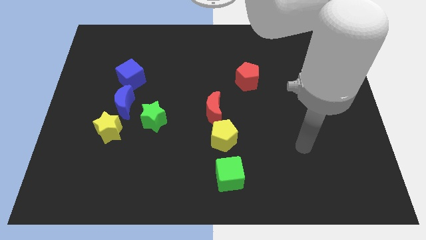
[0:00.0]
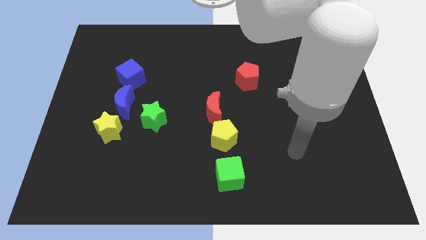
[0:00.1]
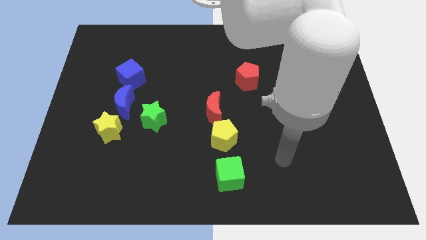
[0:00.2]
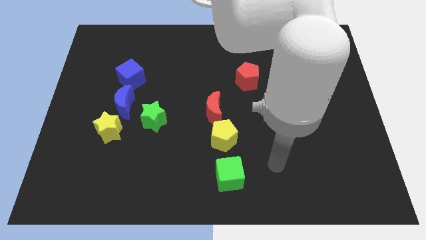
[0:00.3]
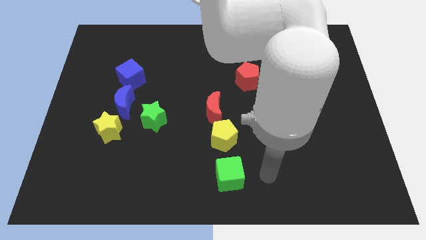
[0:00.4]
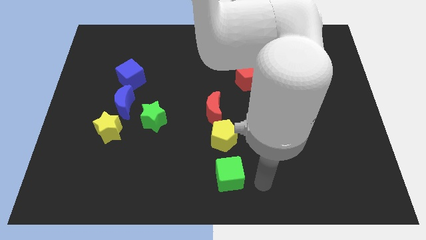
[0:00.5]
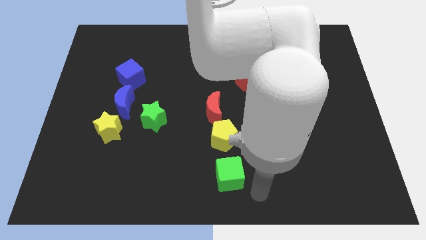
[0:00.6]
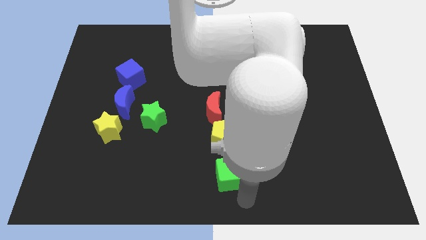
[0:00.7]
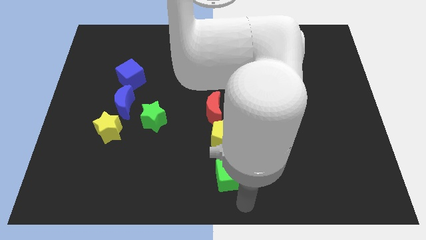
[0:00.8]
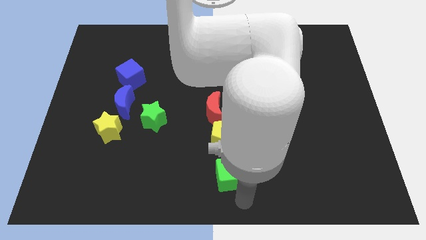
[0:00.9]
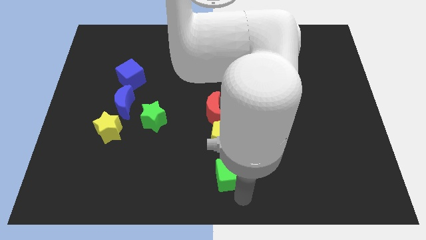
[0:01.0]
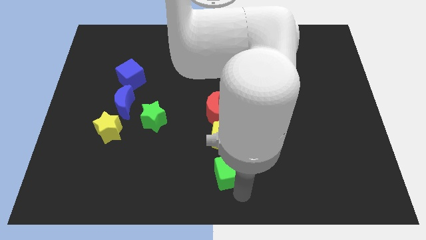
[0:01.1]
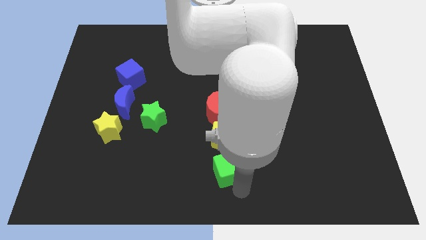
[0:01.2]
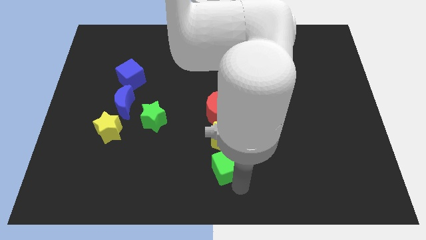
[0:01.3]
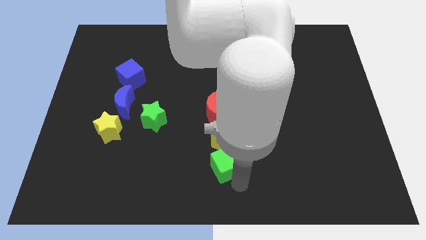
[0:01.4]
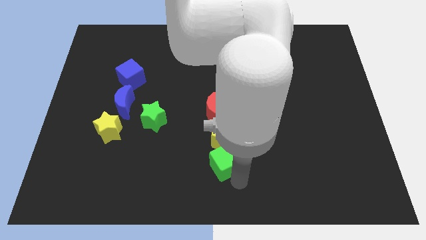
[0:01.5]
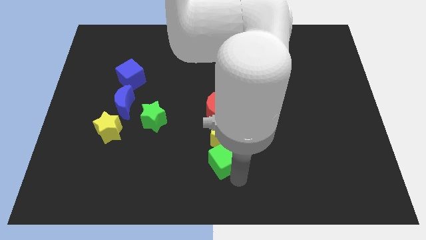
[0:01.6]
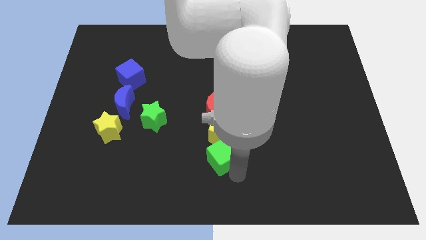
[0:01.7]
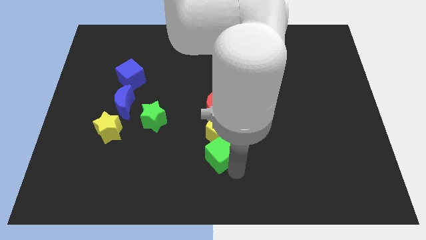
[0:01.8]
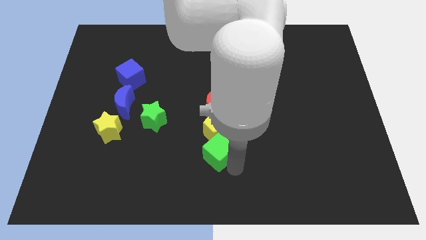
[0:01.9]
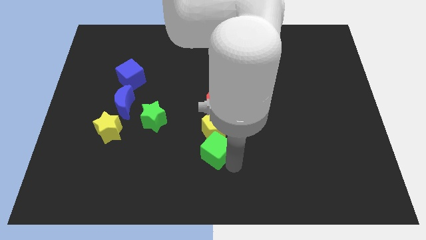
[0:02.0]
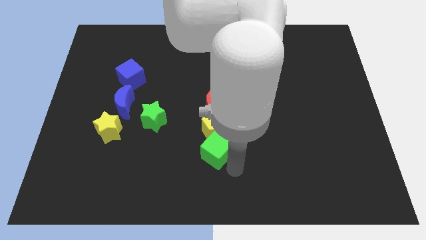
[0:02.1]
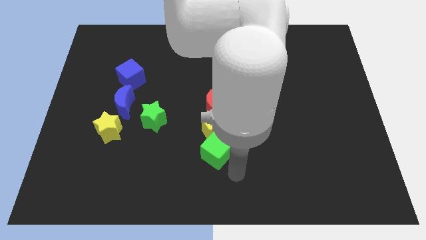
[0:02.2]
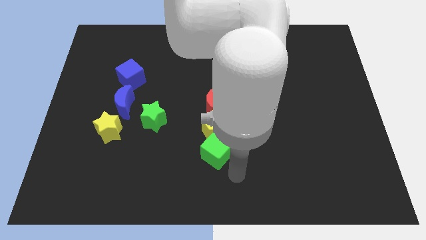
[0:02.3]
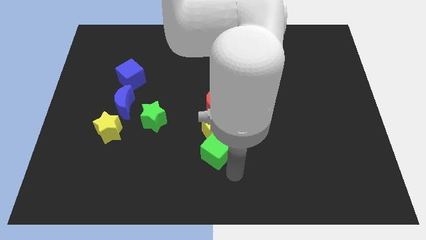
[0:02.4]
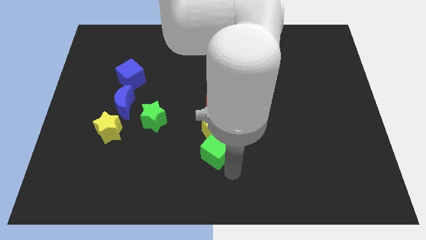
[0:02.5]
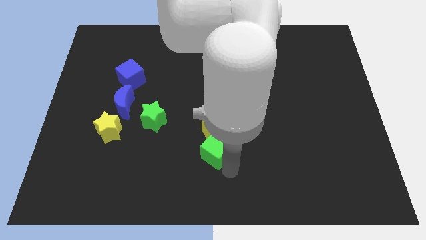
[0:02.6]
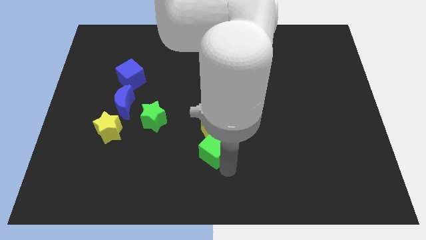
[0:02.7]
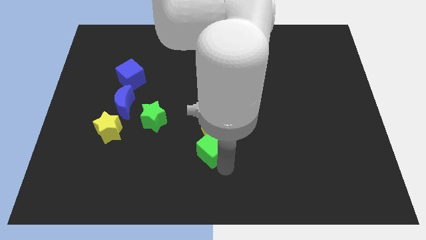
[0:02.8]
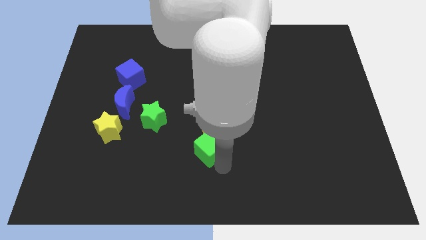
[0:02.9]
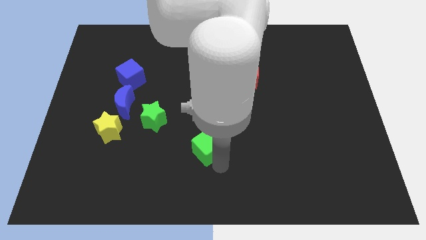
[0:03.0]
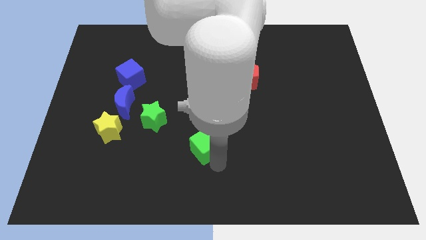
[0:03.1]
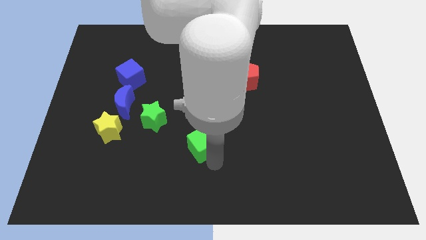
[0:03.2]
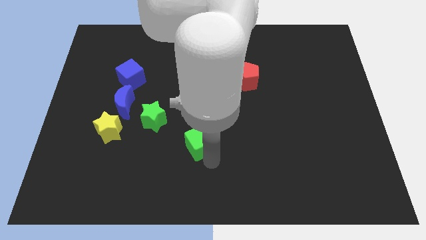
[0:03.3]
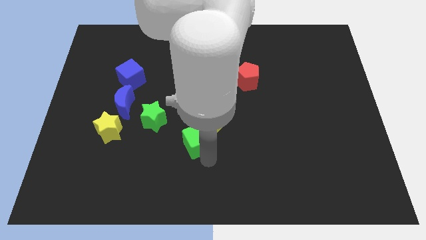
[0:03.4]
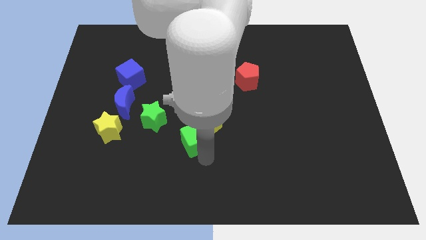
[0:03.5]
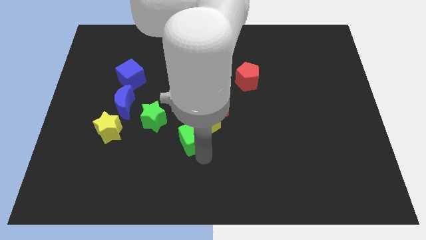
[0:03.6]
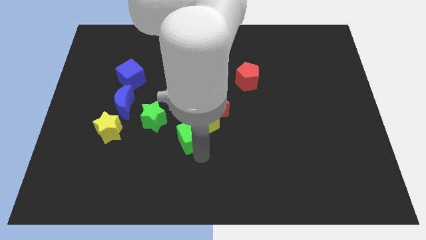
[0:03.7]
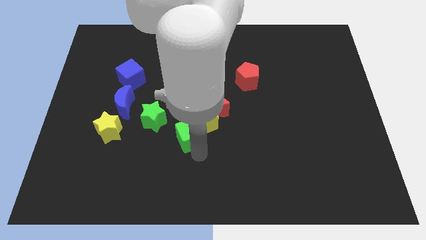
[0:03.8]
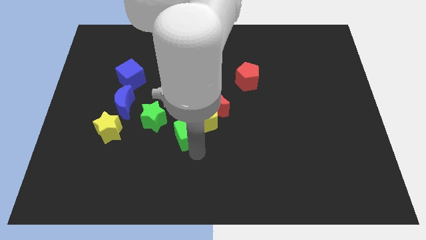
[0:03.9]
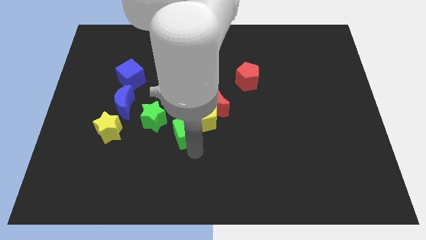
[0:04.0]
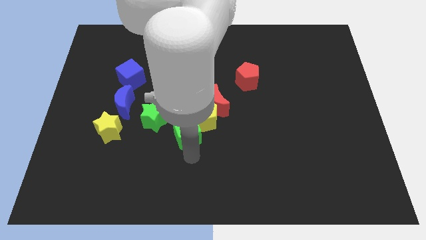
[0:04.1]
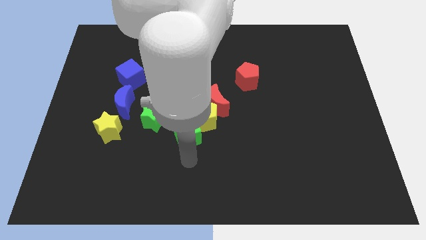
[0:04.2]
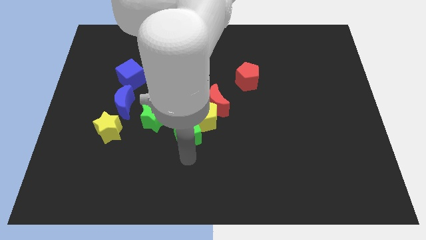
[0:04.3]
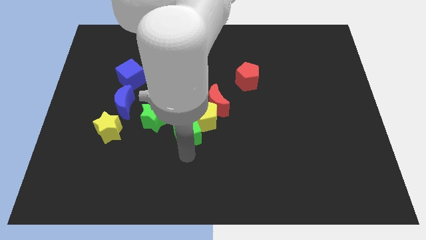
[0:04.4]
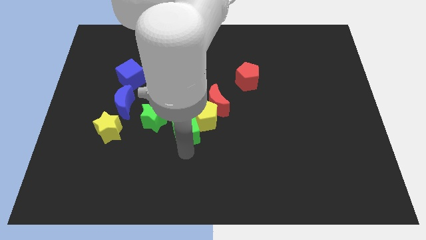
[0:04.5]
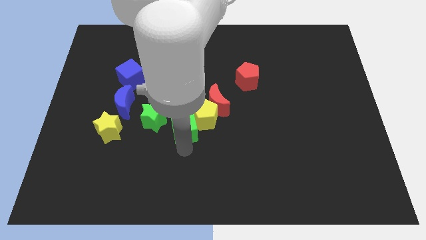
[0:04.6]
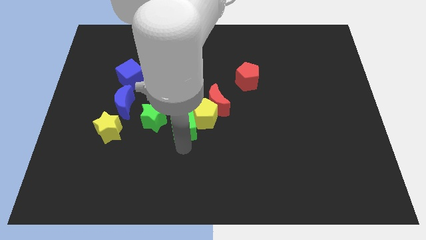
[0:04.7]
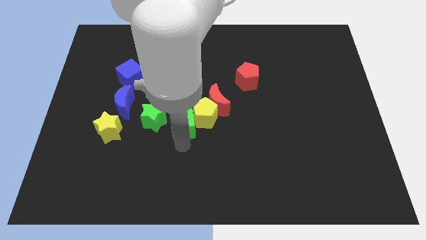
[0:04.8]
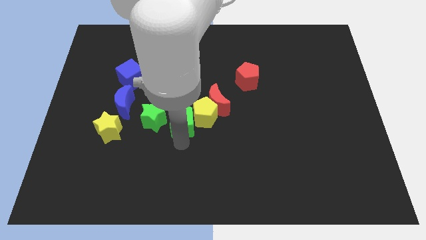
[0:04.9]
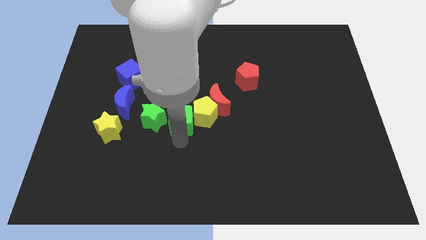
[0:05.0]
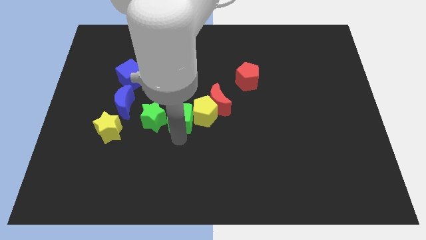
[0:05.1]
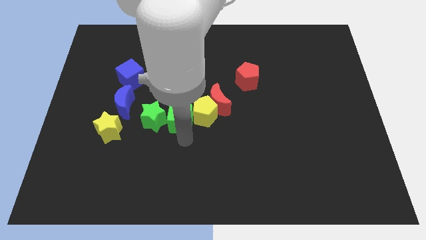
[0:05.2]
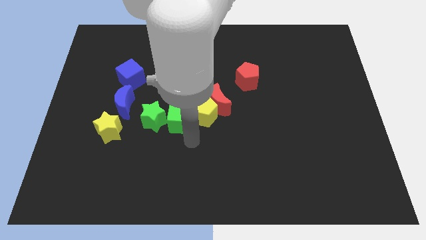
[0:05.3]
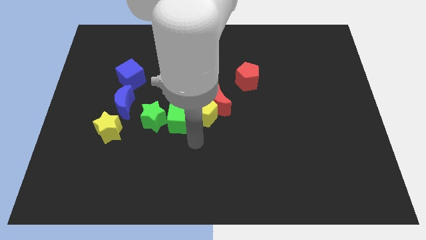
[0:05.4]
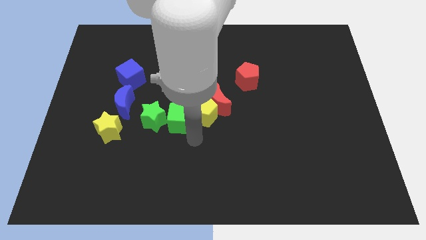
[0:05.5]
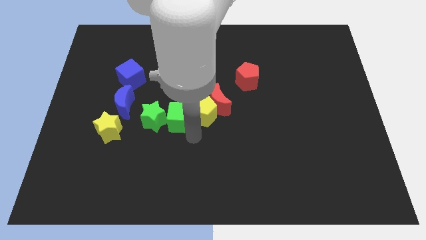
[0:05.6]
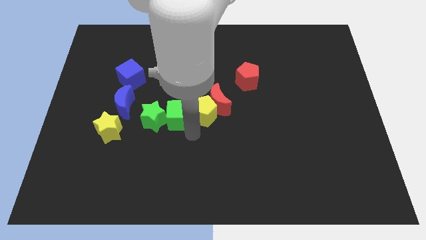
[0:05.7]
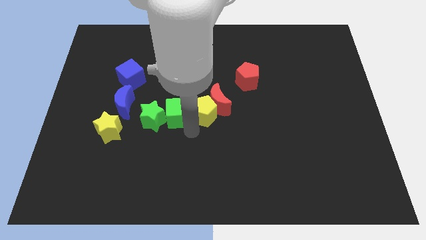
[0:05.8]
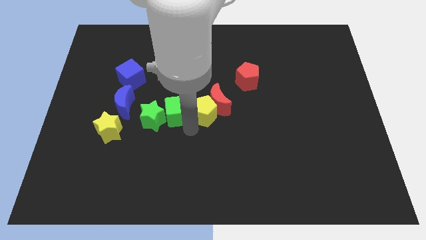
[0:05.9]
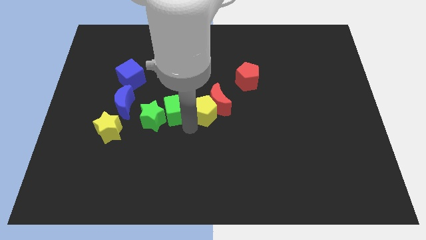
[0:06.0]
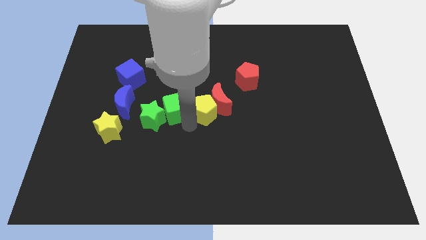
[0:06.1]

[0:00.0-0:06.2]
move the green cube upwards and to the left diagonally

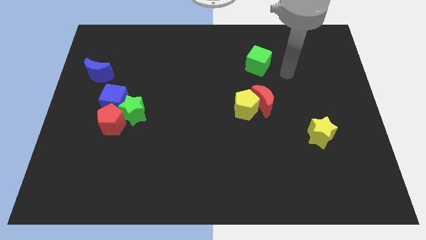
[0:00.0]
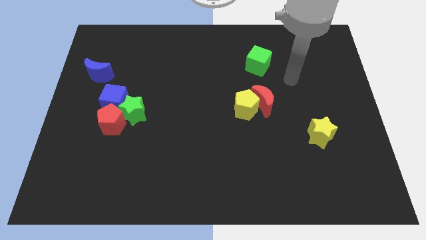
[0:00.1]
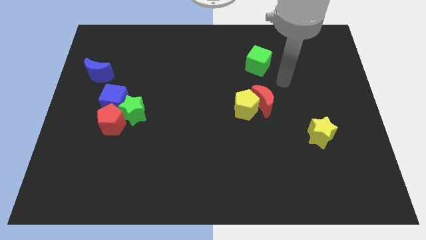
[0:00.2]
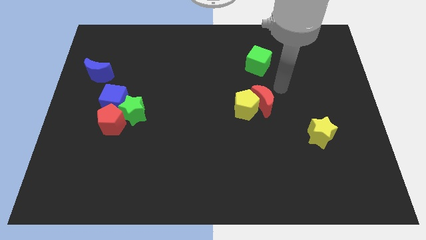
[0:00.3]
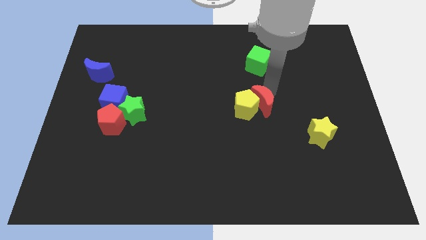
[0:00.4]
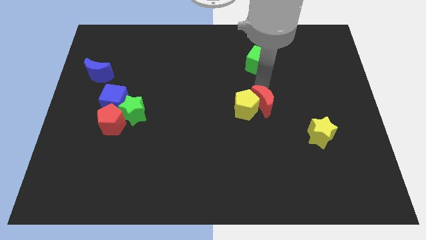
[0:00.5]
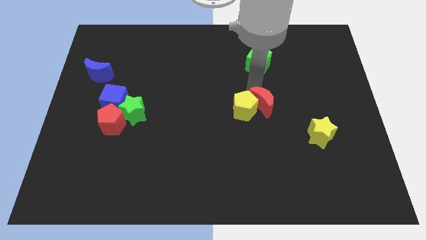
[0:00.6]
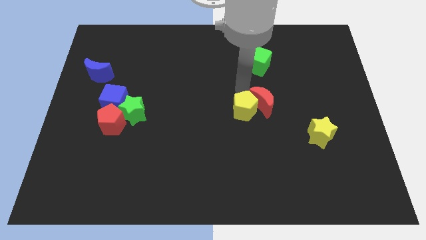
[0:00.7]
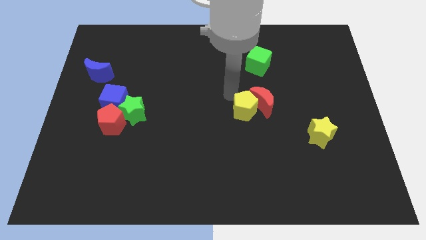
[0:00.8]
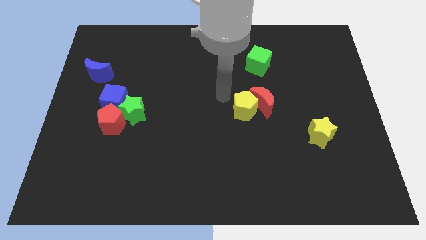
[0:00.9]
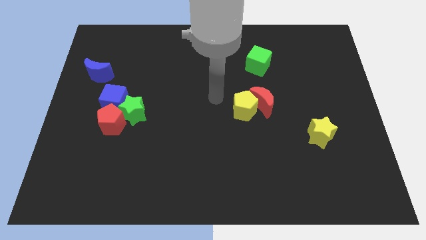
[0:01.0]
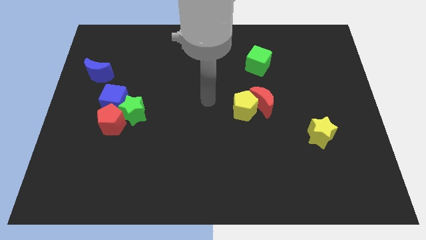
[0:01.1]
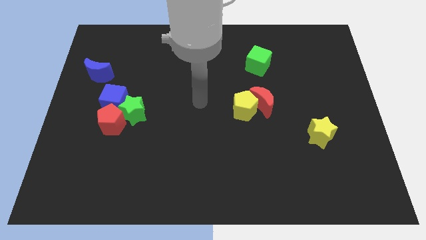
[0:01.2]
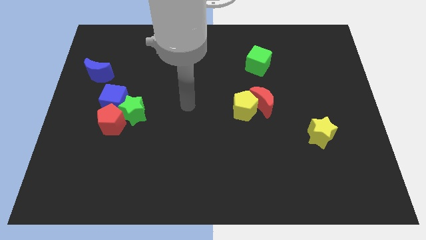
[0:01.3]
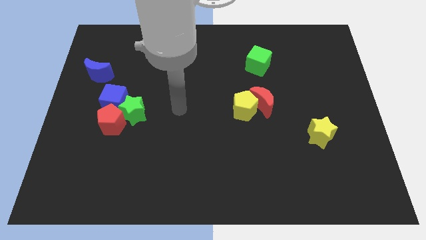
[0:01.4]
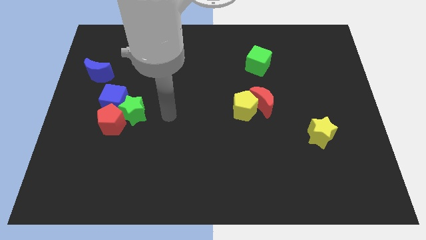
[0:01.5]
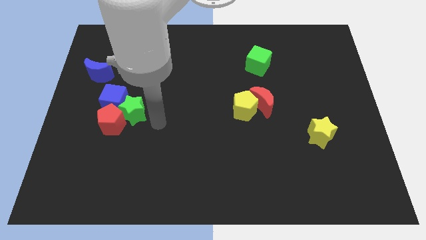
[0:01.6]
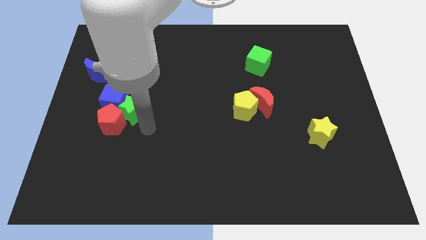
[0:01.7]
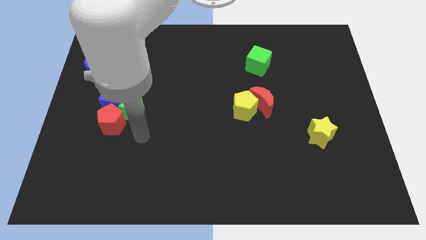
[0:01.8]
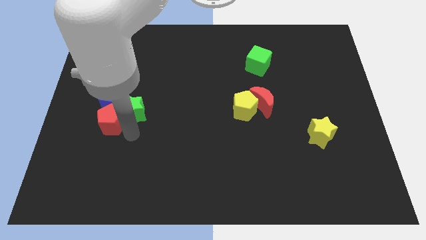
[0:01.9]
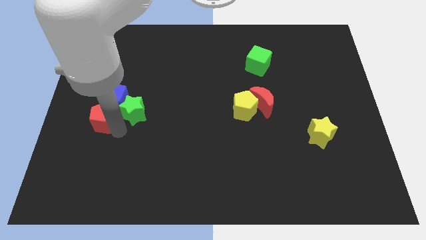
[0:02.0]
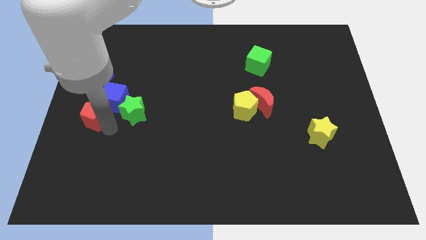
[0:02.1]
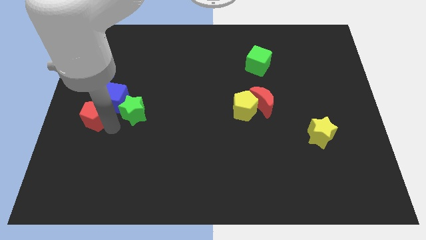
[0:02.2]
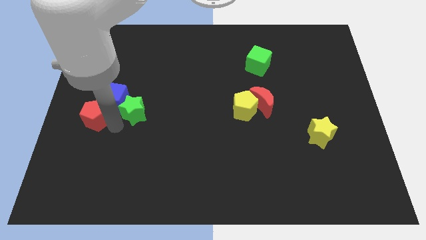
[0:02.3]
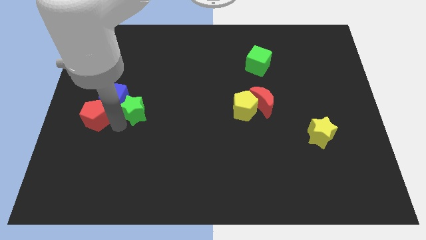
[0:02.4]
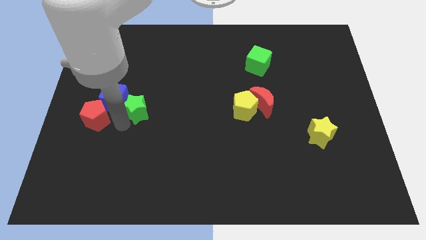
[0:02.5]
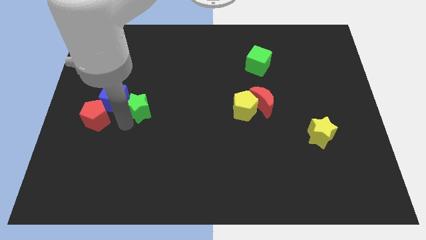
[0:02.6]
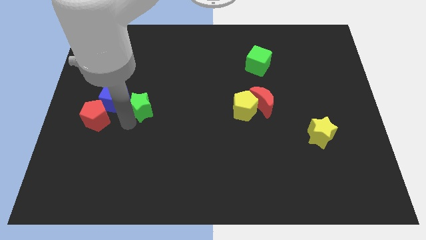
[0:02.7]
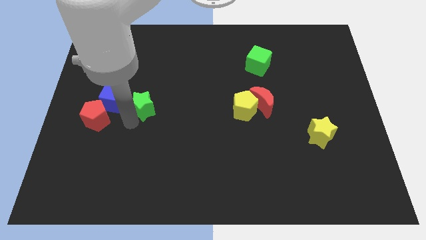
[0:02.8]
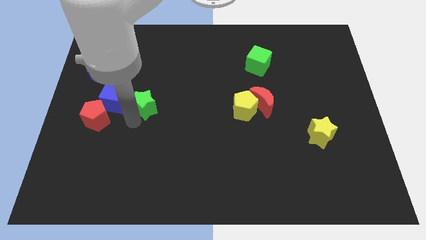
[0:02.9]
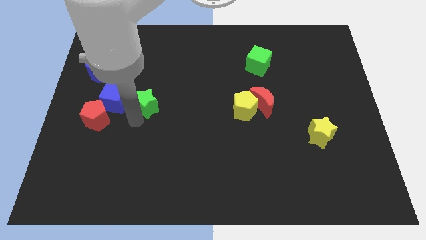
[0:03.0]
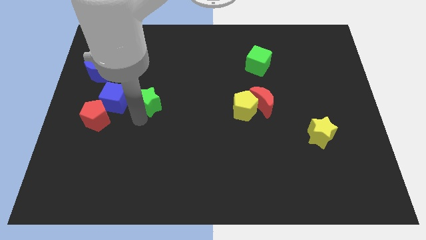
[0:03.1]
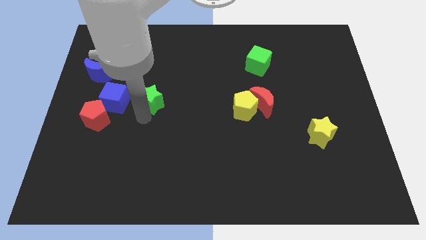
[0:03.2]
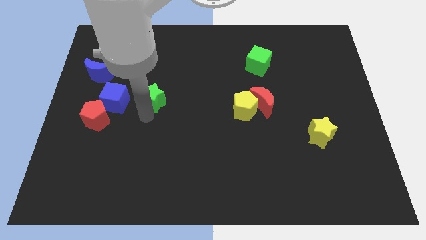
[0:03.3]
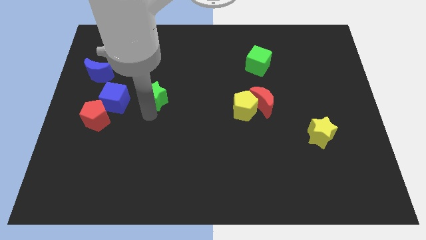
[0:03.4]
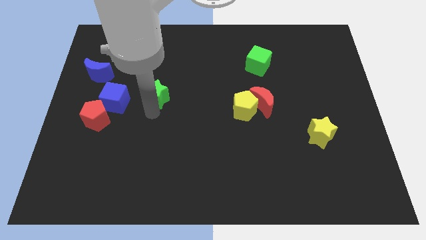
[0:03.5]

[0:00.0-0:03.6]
slightly slide the green star diagonally upwards and right
